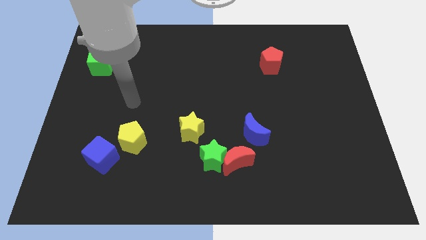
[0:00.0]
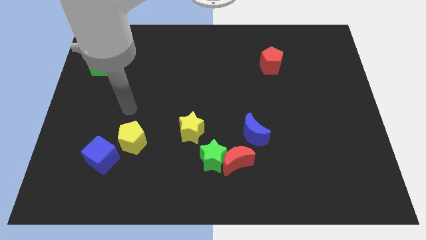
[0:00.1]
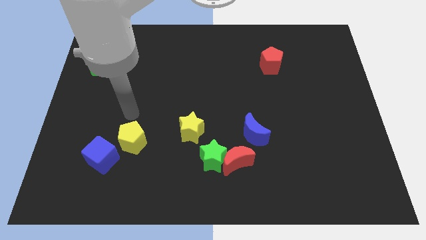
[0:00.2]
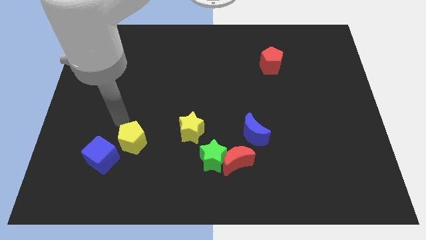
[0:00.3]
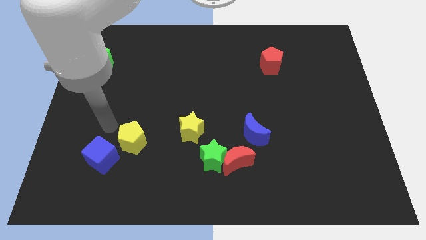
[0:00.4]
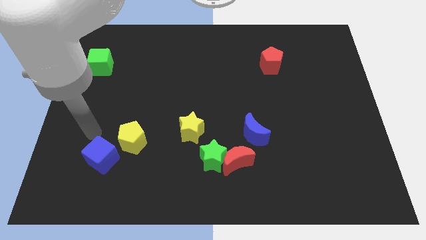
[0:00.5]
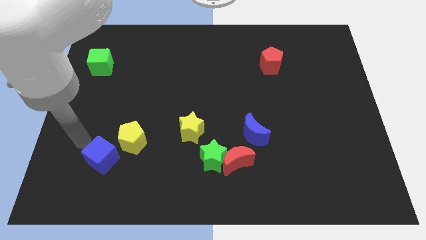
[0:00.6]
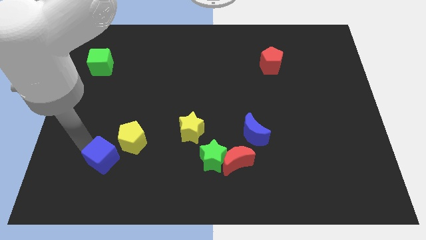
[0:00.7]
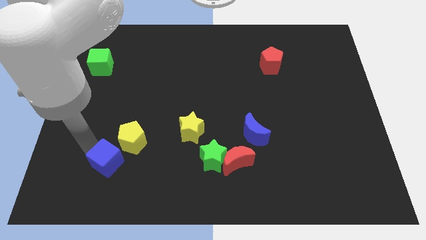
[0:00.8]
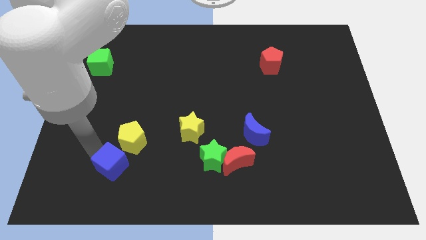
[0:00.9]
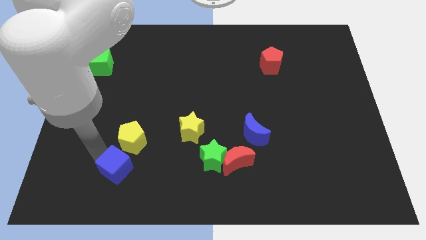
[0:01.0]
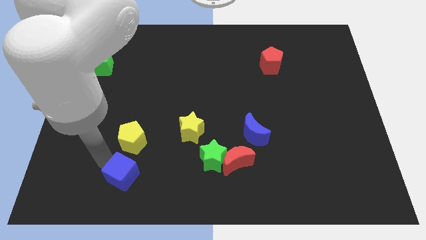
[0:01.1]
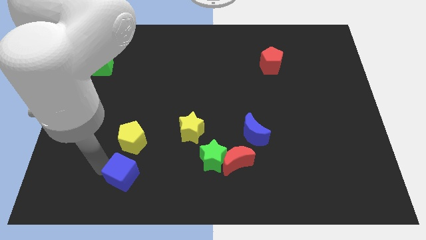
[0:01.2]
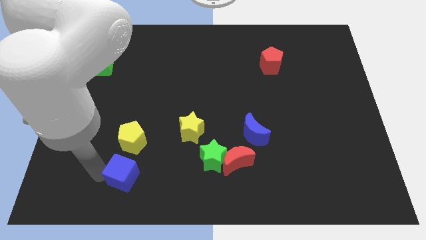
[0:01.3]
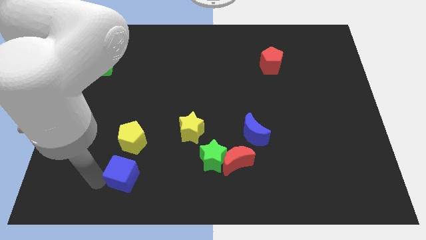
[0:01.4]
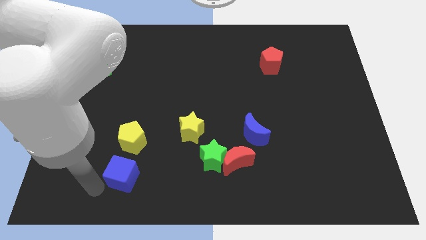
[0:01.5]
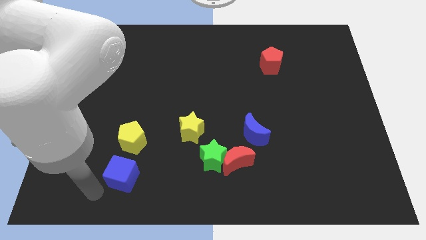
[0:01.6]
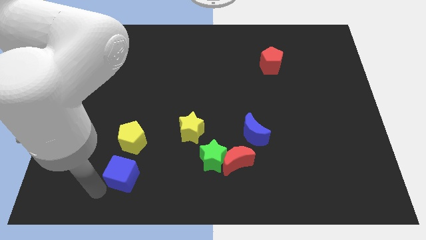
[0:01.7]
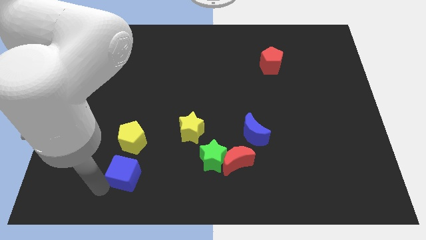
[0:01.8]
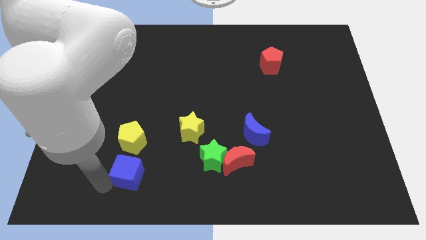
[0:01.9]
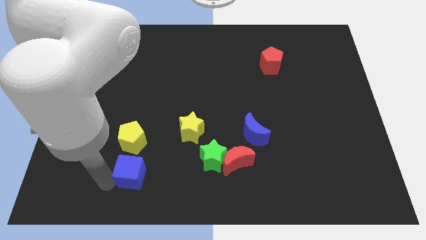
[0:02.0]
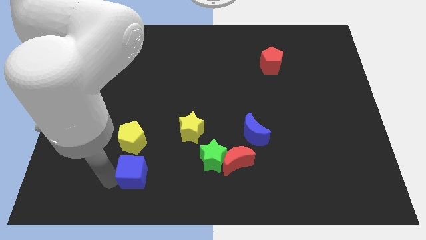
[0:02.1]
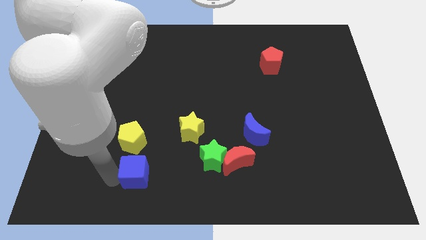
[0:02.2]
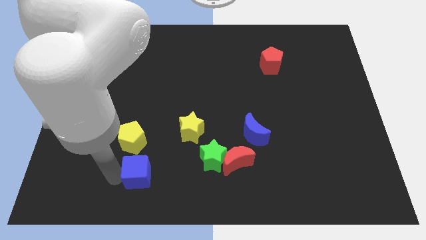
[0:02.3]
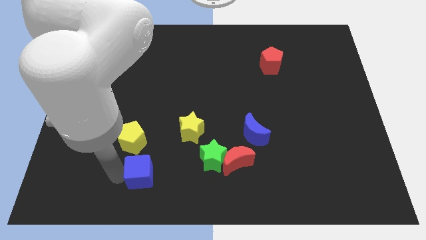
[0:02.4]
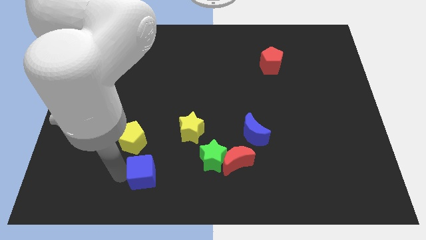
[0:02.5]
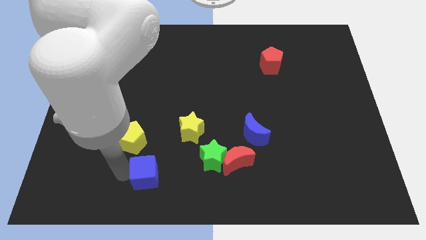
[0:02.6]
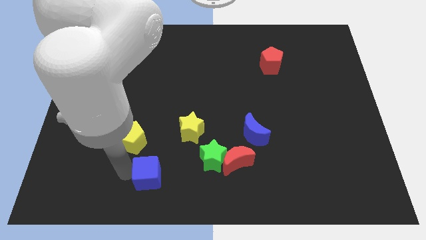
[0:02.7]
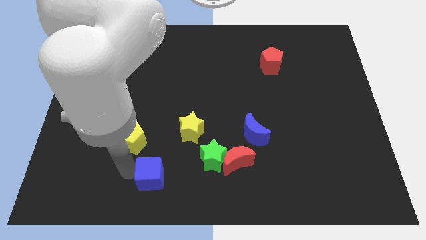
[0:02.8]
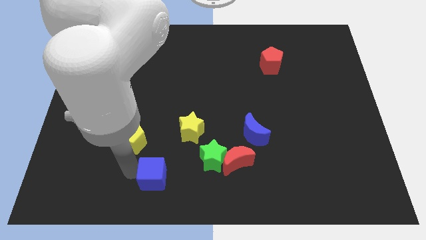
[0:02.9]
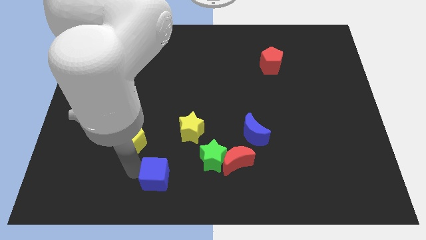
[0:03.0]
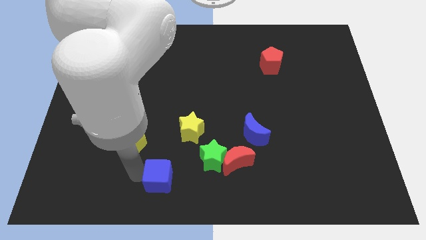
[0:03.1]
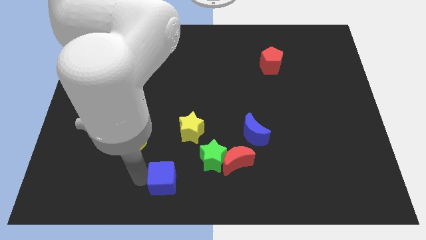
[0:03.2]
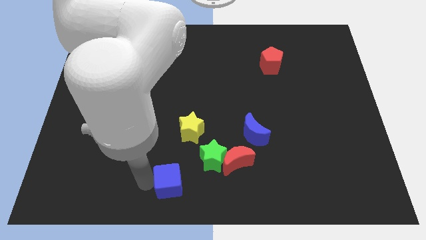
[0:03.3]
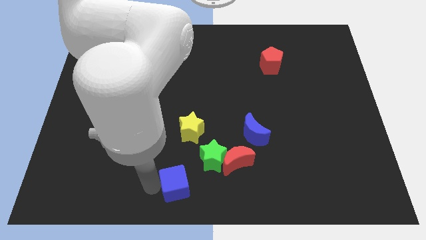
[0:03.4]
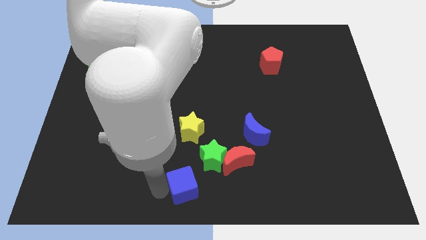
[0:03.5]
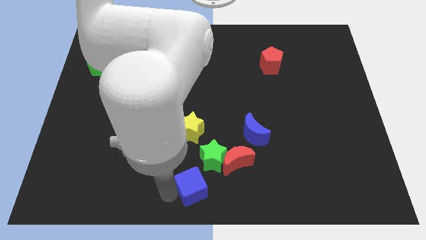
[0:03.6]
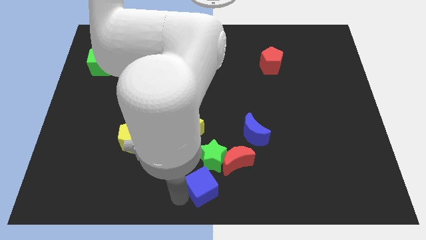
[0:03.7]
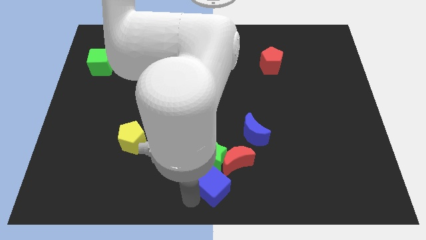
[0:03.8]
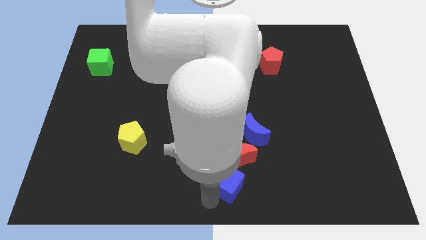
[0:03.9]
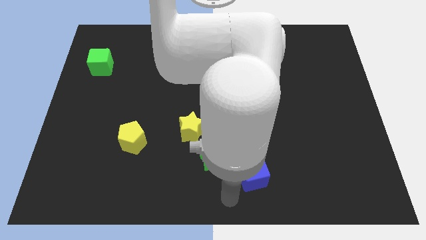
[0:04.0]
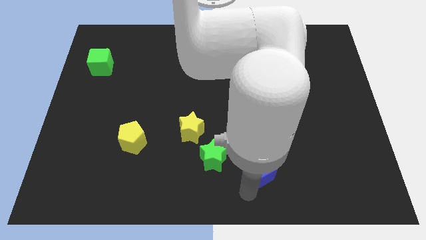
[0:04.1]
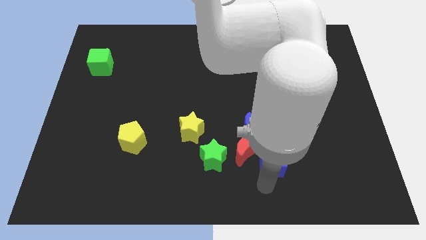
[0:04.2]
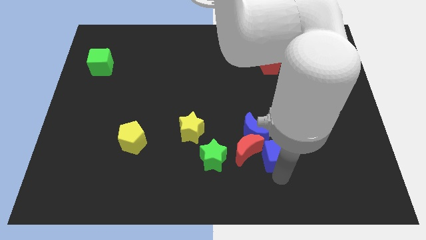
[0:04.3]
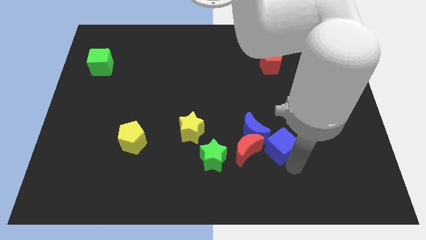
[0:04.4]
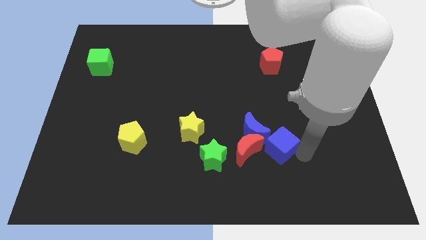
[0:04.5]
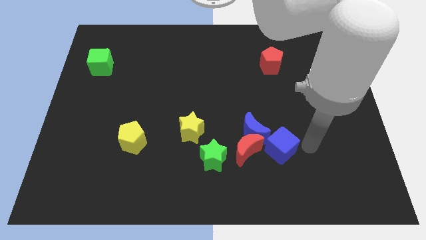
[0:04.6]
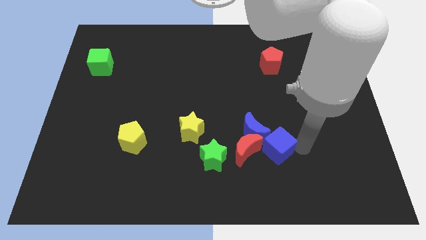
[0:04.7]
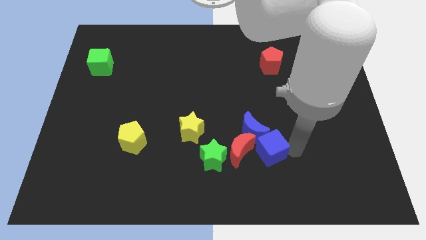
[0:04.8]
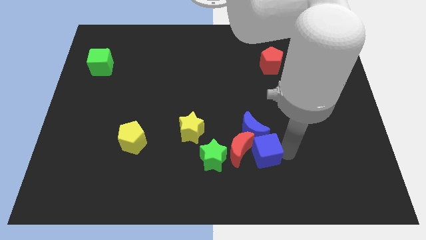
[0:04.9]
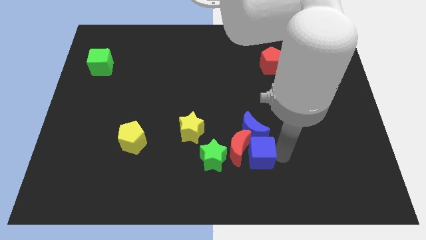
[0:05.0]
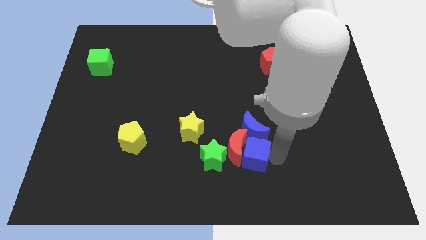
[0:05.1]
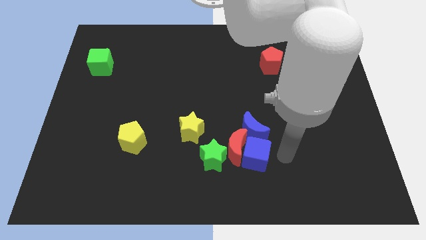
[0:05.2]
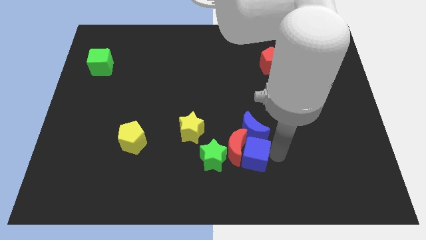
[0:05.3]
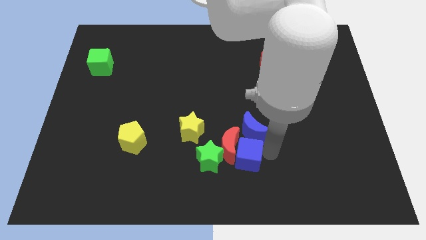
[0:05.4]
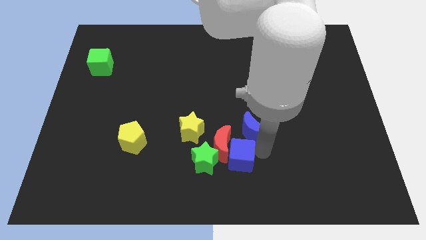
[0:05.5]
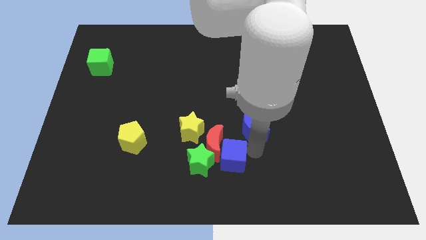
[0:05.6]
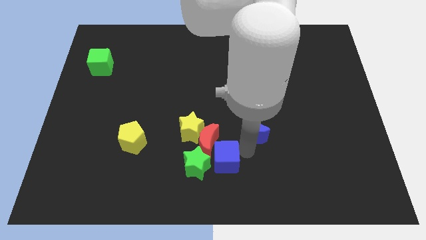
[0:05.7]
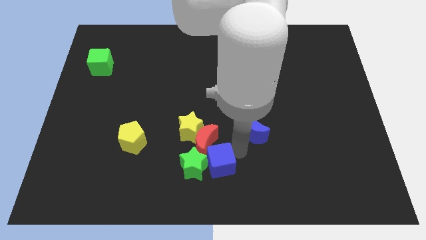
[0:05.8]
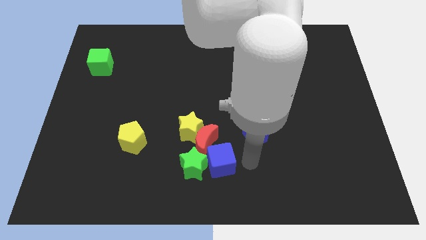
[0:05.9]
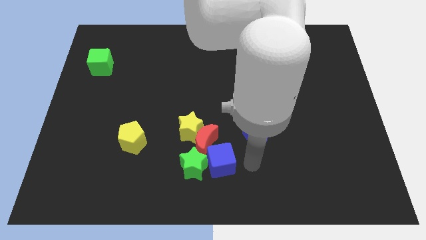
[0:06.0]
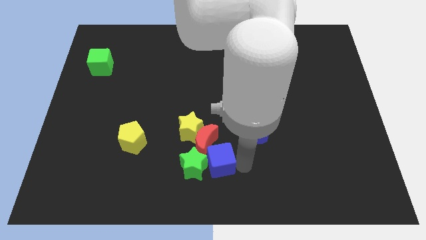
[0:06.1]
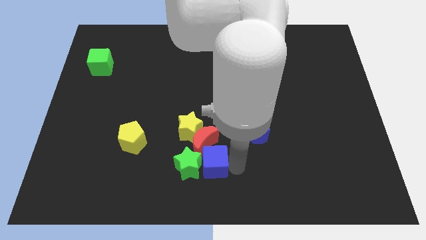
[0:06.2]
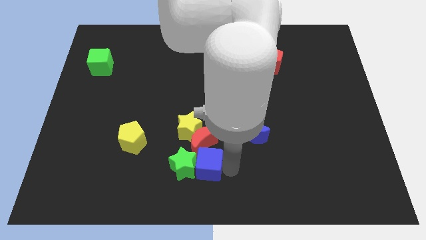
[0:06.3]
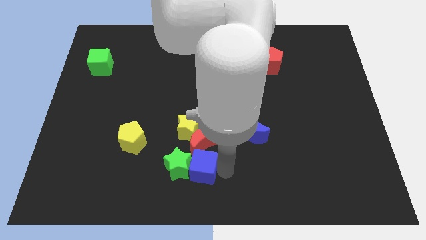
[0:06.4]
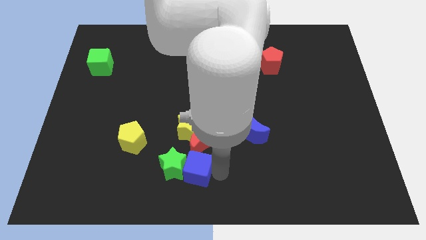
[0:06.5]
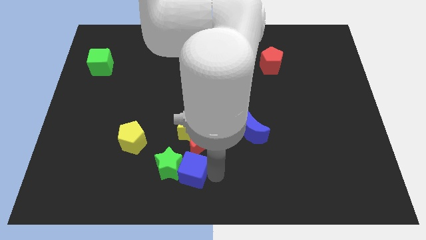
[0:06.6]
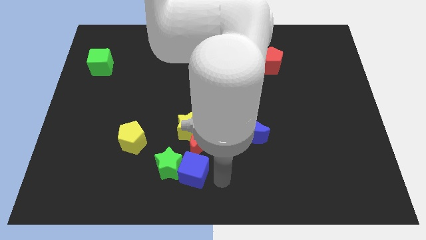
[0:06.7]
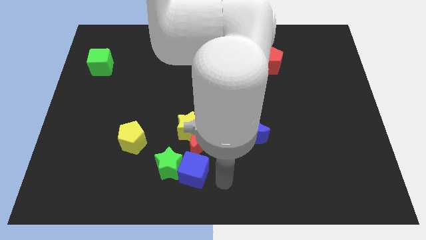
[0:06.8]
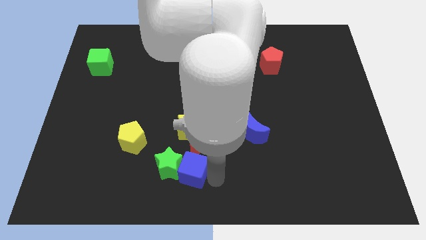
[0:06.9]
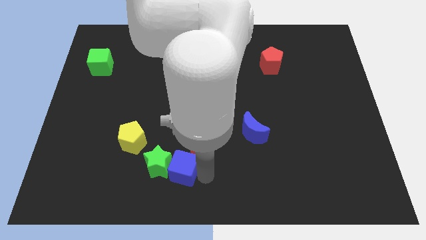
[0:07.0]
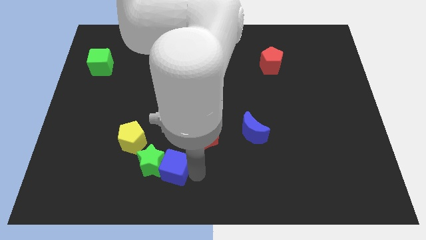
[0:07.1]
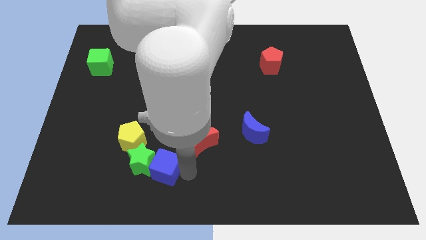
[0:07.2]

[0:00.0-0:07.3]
move the blue cube to the bottom left side of the yellow star

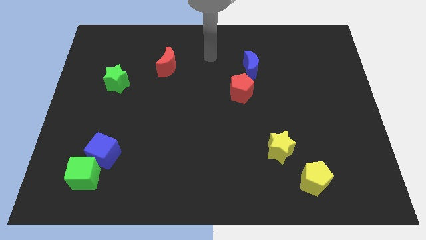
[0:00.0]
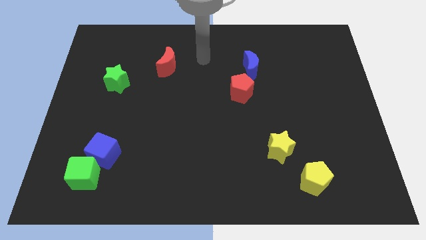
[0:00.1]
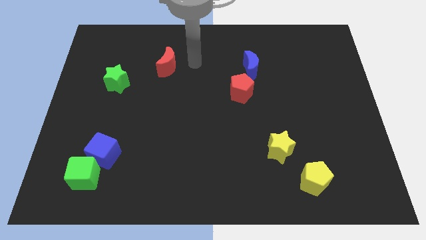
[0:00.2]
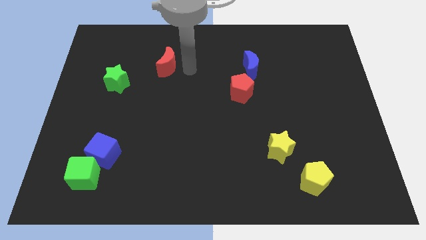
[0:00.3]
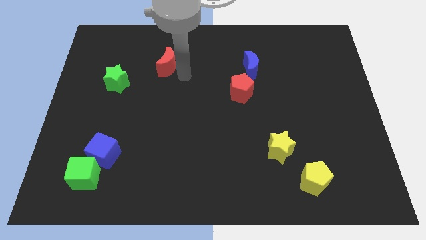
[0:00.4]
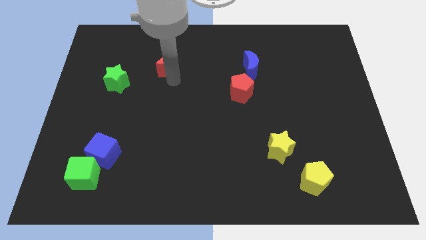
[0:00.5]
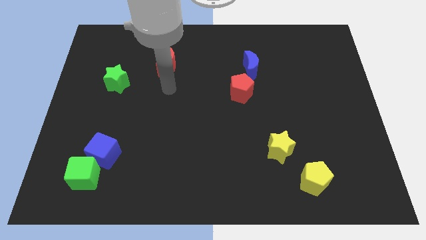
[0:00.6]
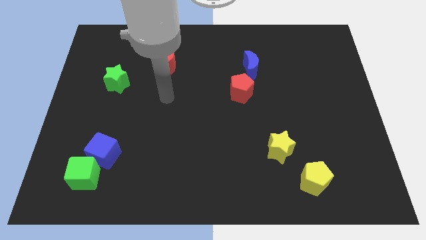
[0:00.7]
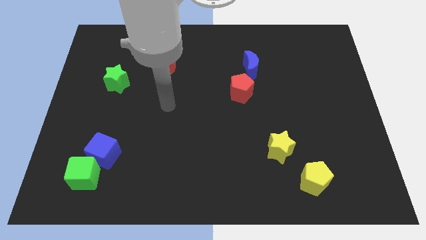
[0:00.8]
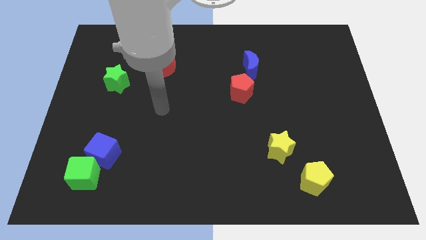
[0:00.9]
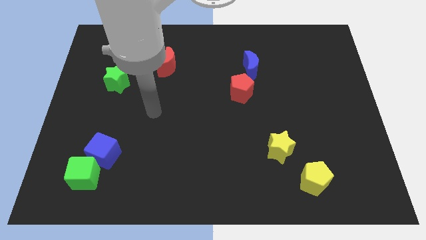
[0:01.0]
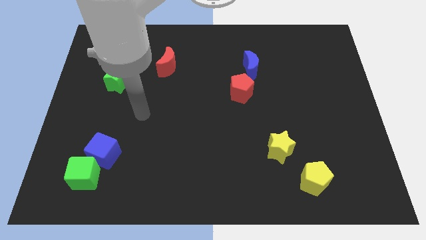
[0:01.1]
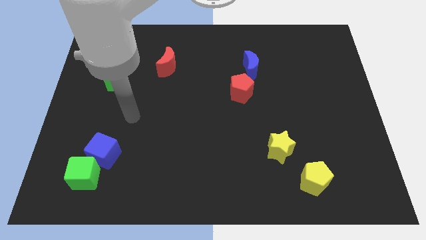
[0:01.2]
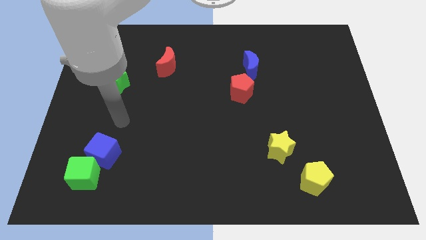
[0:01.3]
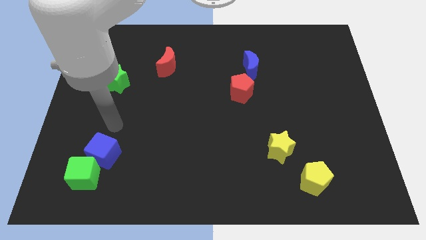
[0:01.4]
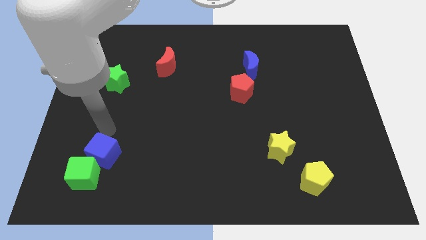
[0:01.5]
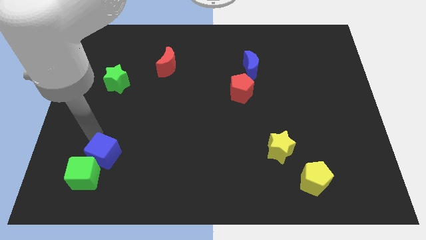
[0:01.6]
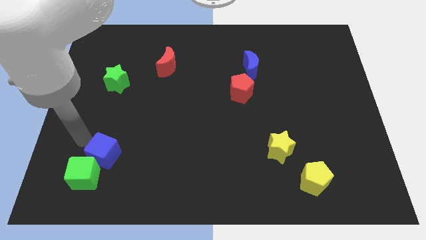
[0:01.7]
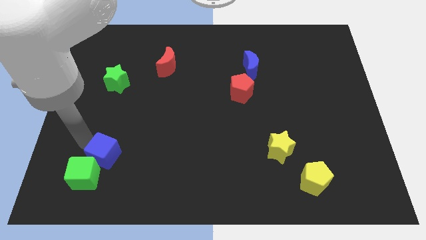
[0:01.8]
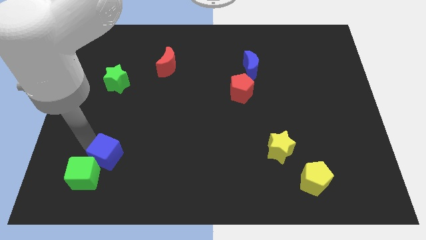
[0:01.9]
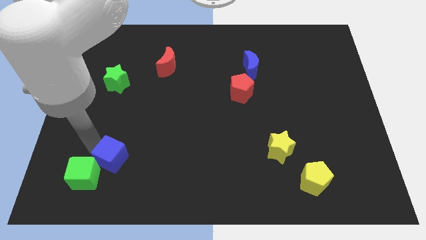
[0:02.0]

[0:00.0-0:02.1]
push the blue cube to the right side of the green cube
